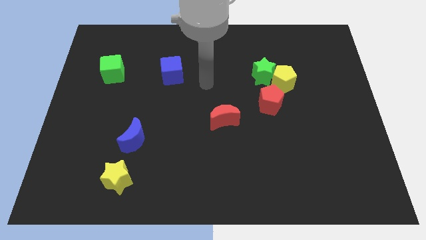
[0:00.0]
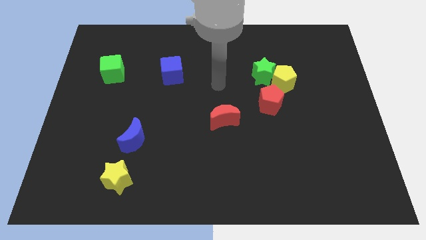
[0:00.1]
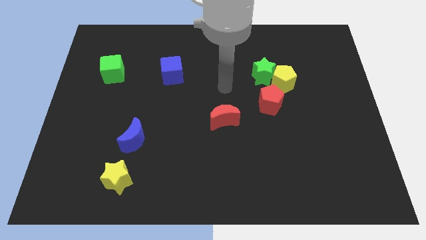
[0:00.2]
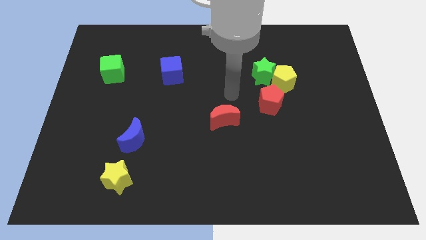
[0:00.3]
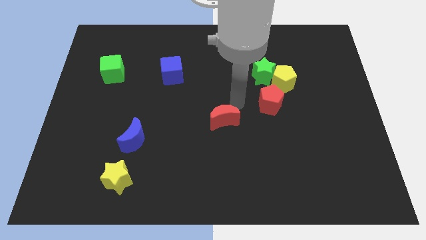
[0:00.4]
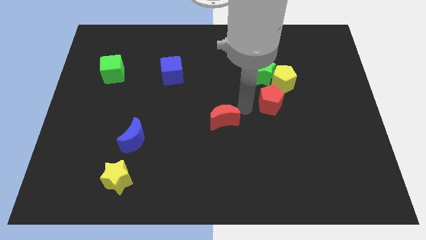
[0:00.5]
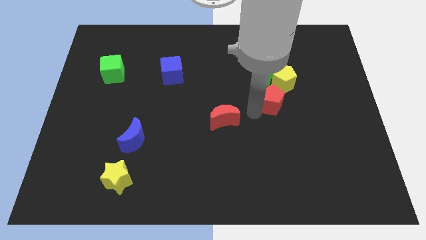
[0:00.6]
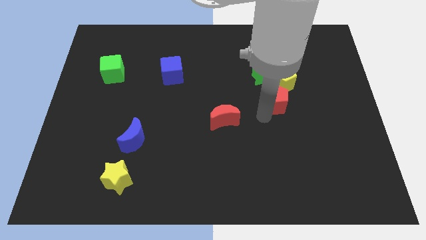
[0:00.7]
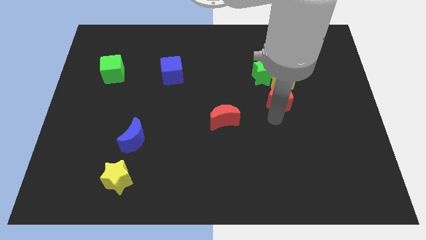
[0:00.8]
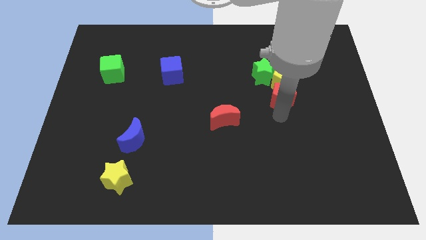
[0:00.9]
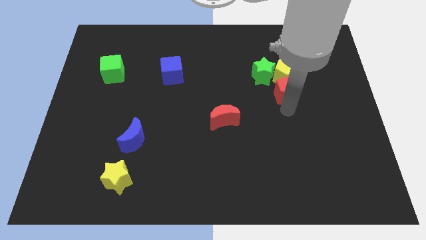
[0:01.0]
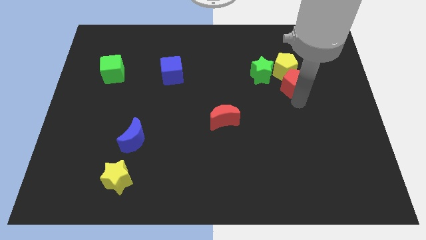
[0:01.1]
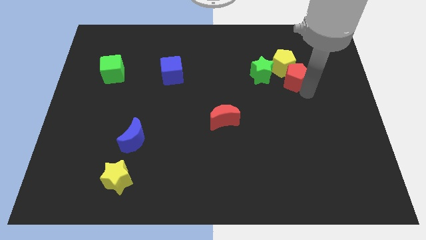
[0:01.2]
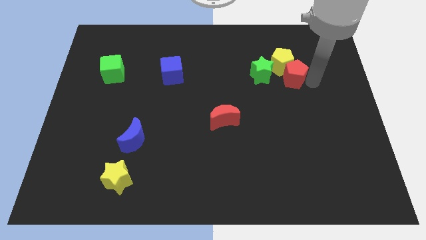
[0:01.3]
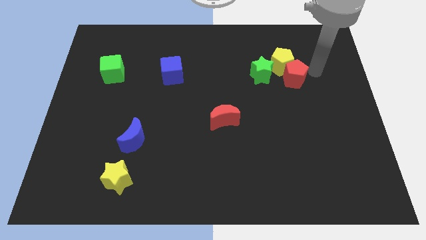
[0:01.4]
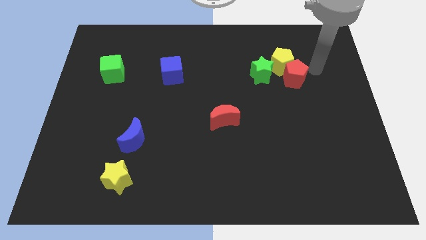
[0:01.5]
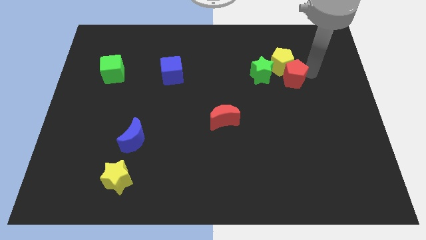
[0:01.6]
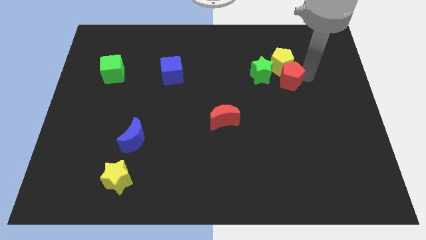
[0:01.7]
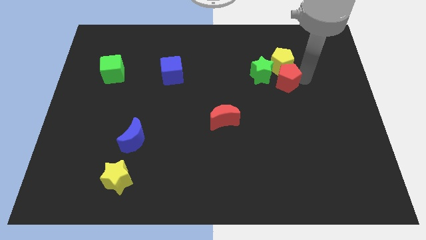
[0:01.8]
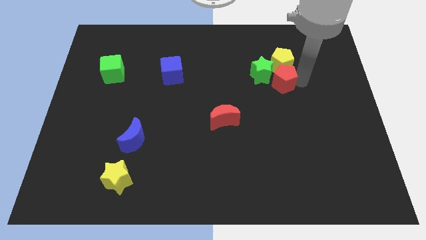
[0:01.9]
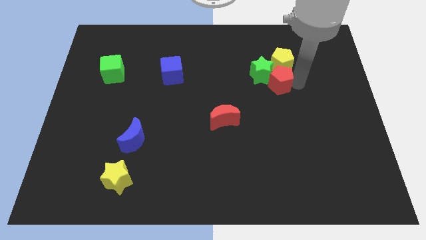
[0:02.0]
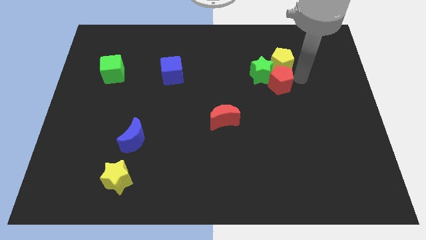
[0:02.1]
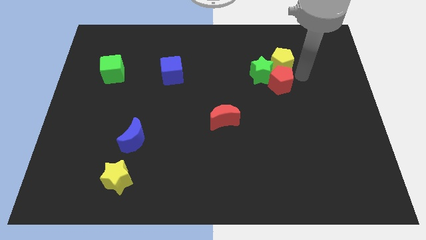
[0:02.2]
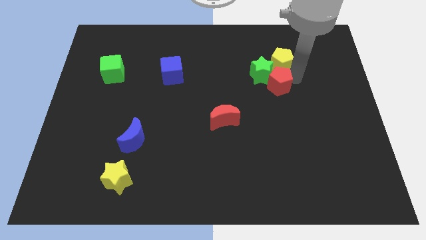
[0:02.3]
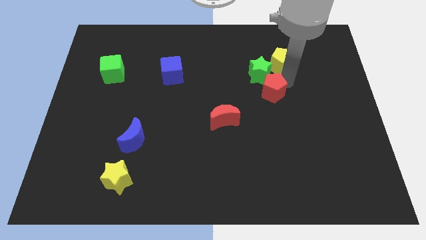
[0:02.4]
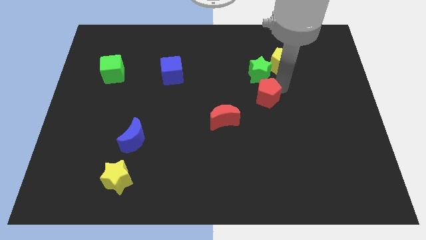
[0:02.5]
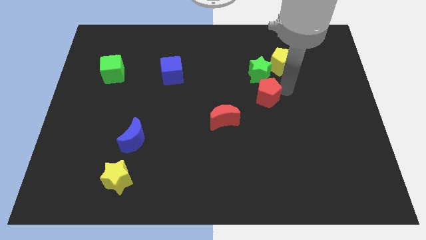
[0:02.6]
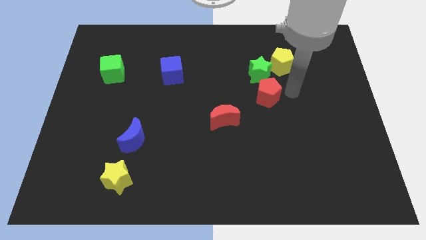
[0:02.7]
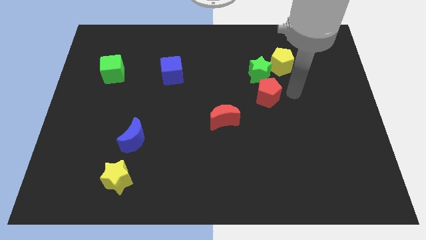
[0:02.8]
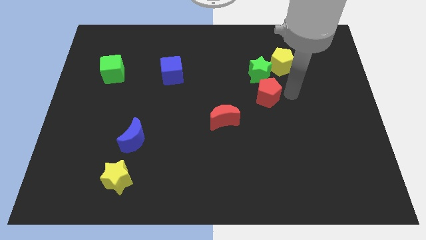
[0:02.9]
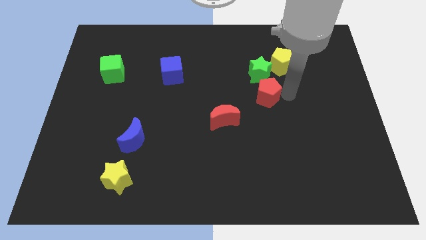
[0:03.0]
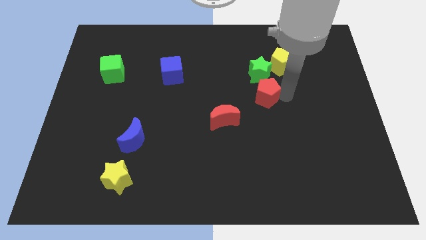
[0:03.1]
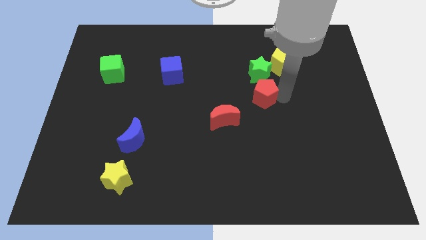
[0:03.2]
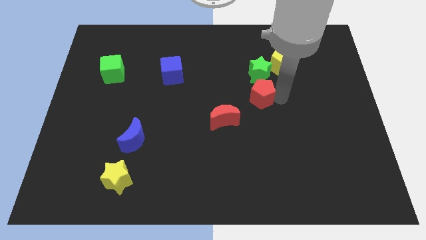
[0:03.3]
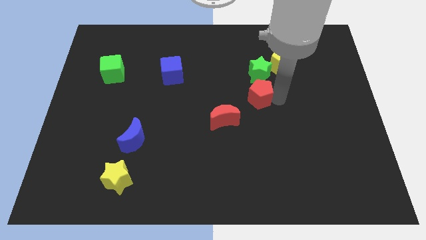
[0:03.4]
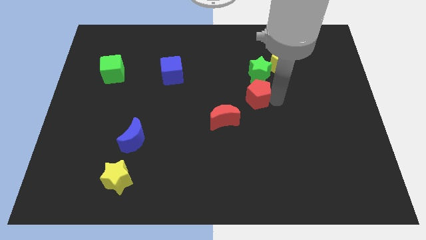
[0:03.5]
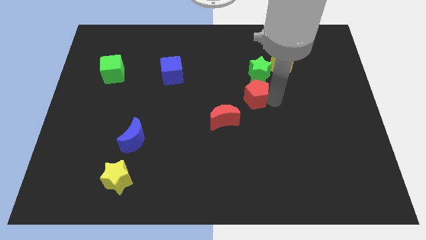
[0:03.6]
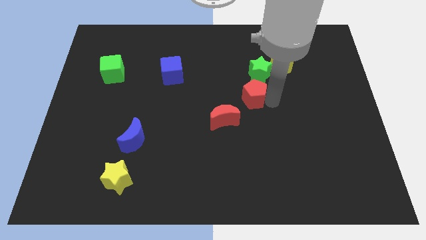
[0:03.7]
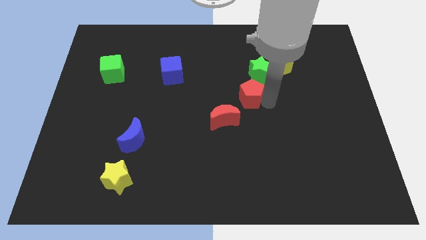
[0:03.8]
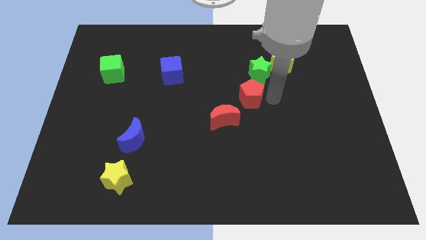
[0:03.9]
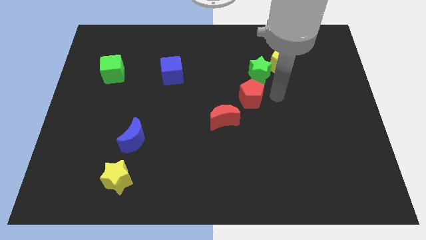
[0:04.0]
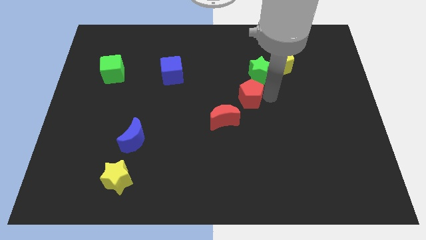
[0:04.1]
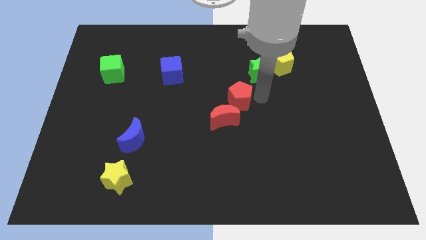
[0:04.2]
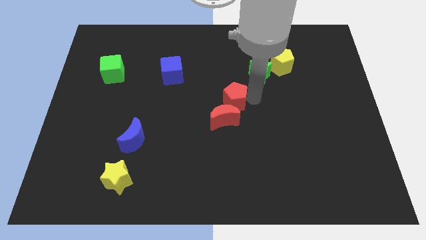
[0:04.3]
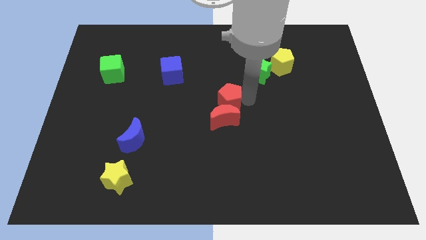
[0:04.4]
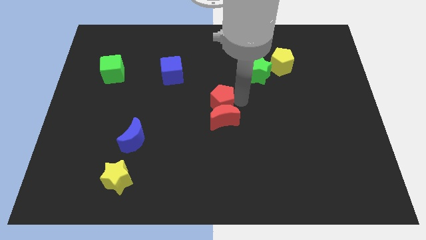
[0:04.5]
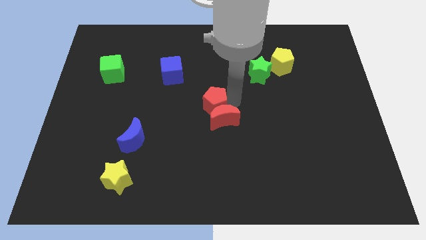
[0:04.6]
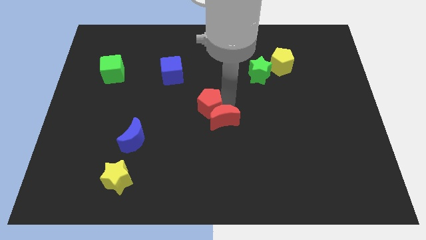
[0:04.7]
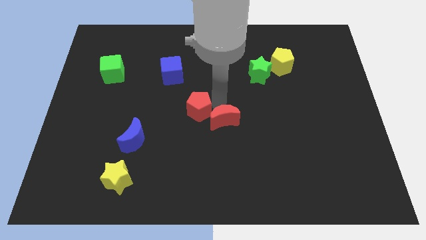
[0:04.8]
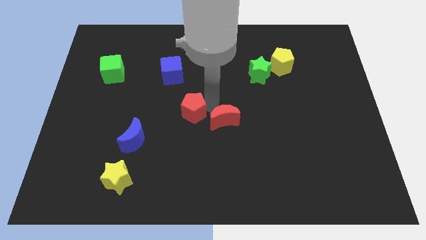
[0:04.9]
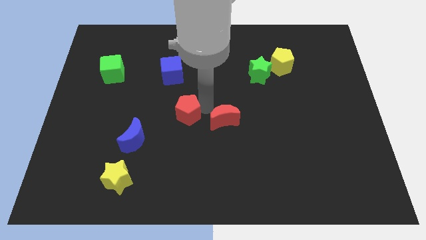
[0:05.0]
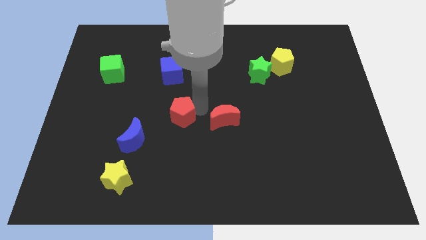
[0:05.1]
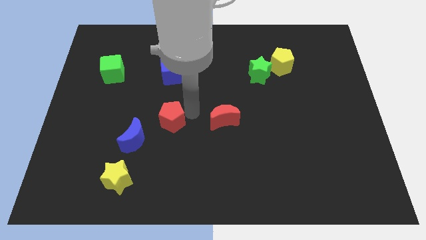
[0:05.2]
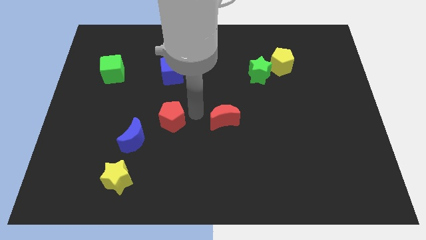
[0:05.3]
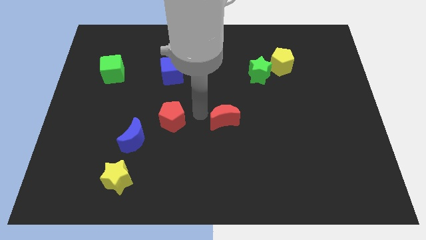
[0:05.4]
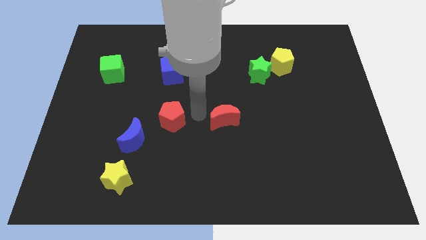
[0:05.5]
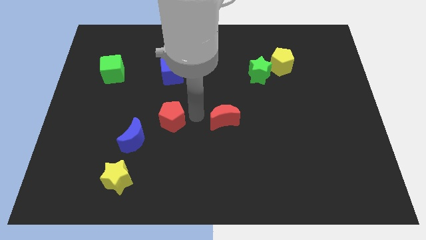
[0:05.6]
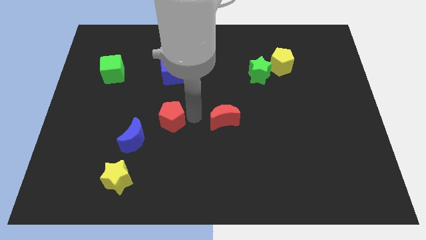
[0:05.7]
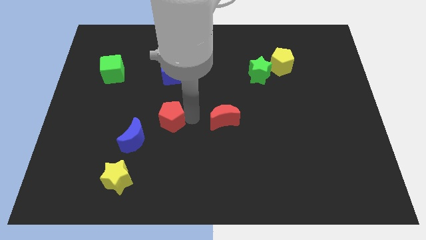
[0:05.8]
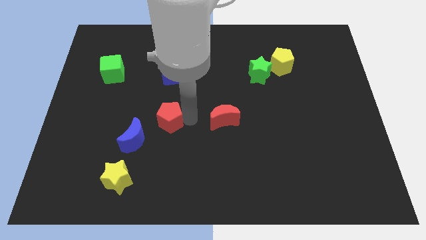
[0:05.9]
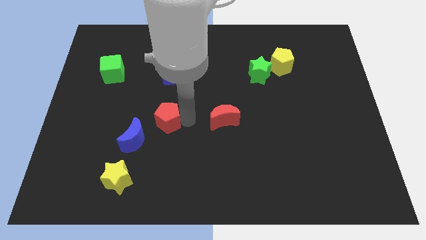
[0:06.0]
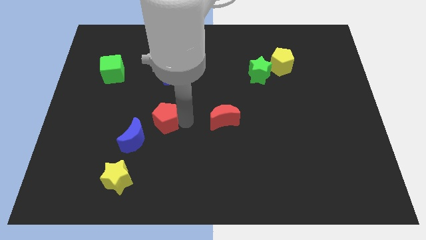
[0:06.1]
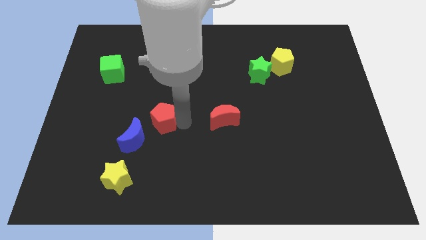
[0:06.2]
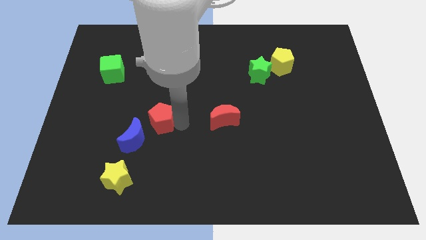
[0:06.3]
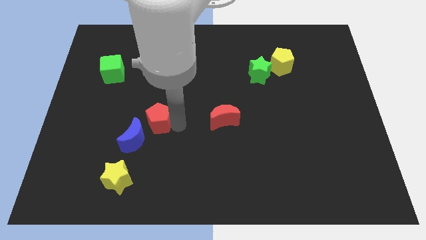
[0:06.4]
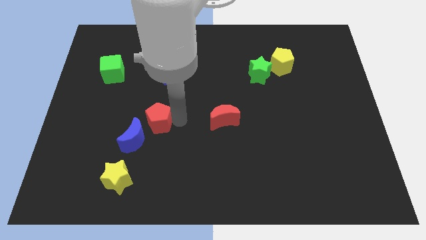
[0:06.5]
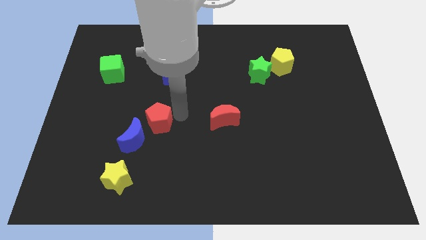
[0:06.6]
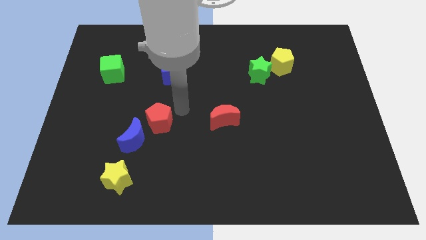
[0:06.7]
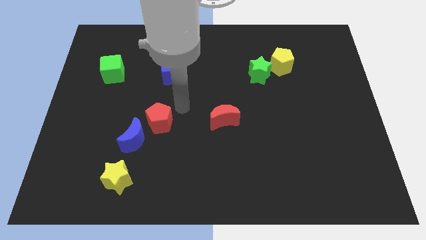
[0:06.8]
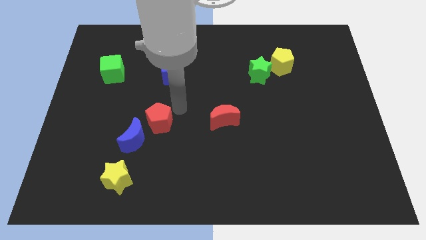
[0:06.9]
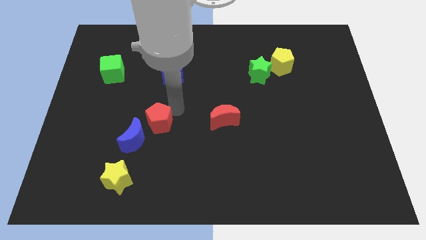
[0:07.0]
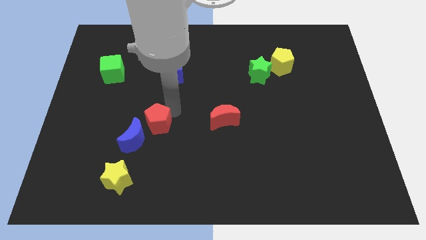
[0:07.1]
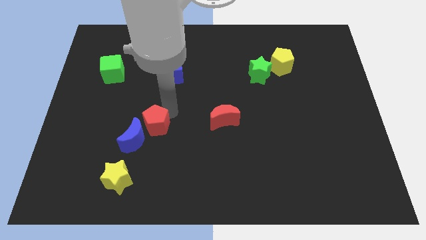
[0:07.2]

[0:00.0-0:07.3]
push the red pentagon towards the blue moon
